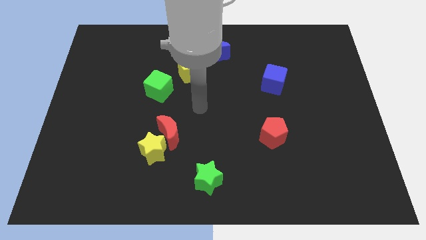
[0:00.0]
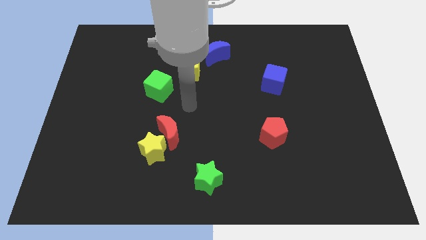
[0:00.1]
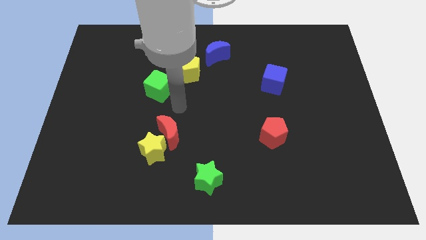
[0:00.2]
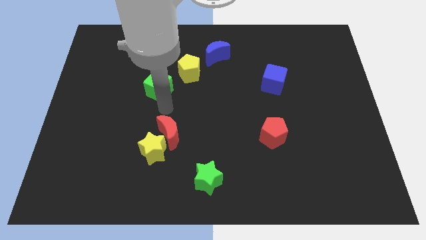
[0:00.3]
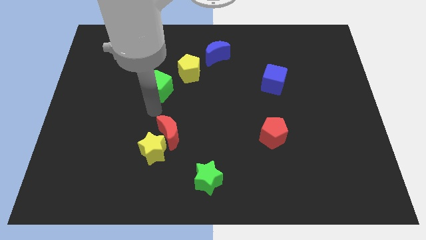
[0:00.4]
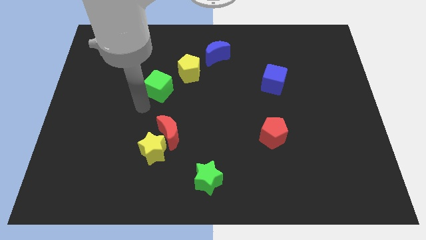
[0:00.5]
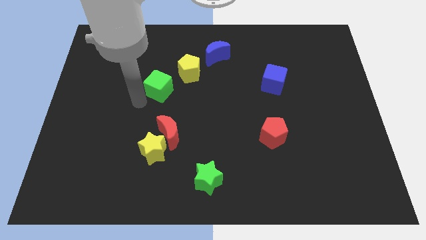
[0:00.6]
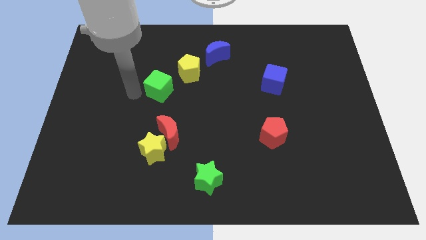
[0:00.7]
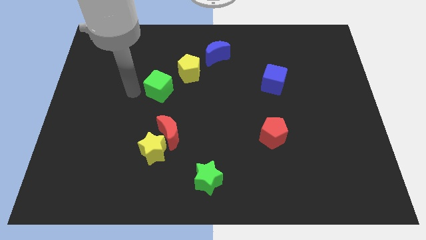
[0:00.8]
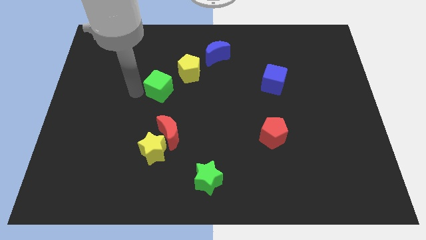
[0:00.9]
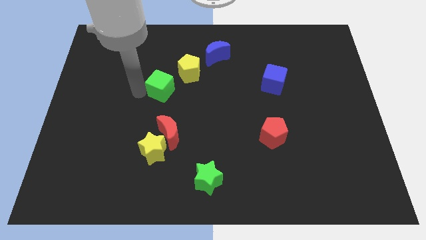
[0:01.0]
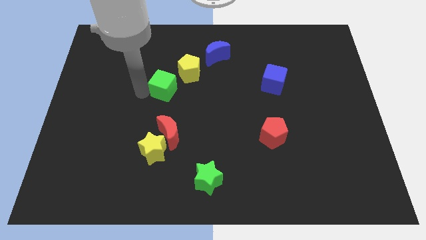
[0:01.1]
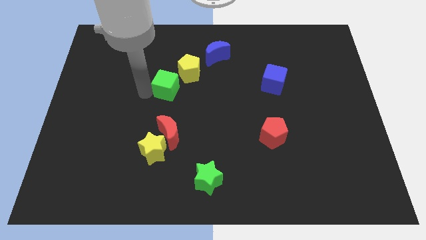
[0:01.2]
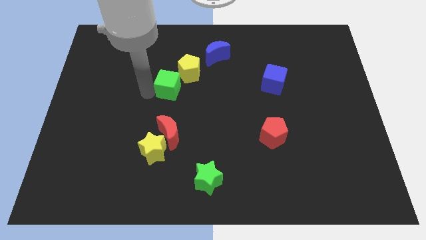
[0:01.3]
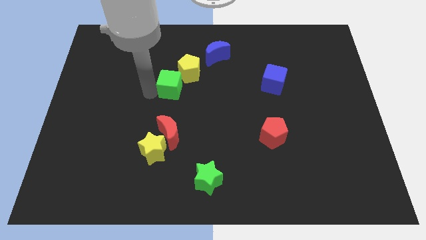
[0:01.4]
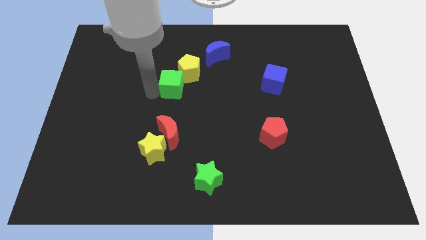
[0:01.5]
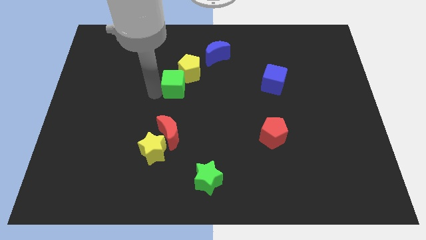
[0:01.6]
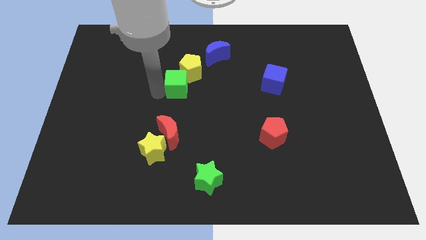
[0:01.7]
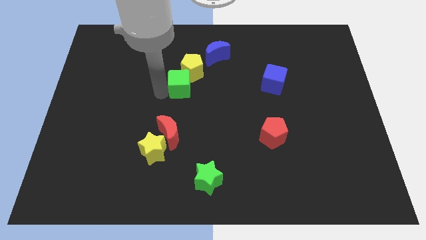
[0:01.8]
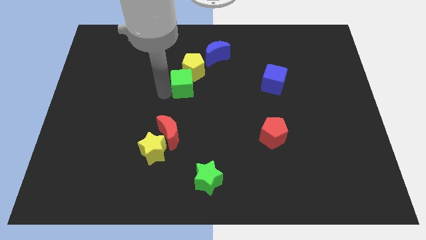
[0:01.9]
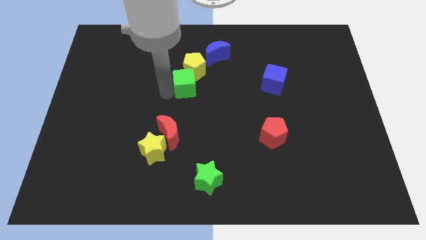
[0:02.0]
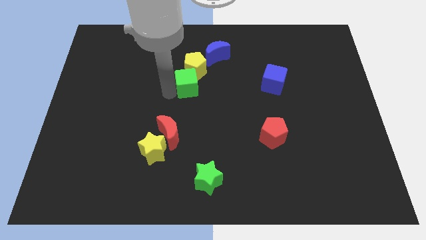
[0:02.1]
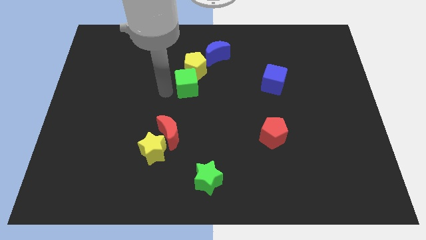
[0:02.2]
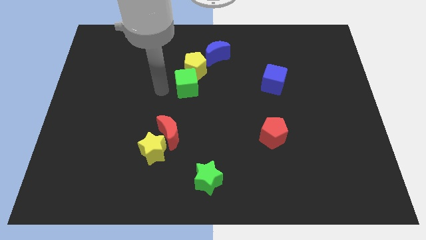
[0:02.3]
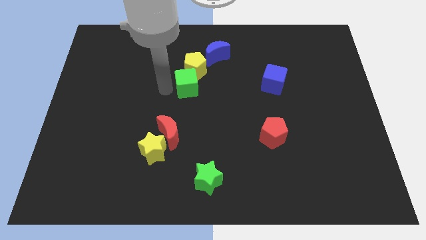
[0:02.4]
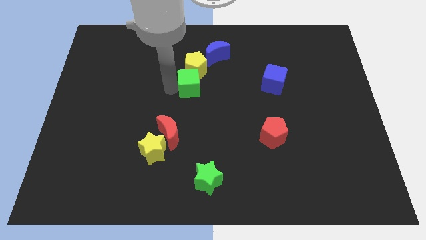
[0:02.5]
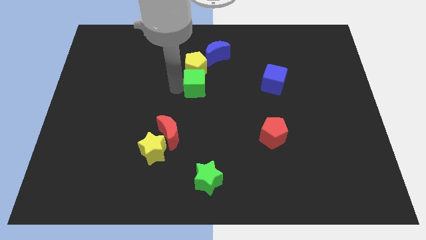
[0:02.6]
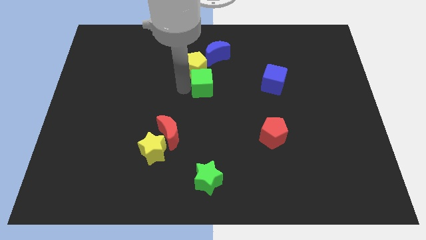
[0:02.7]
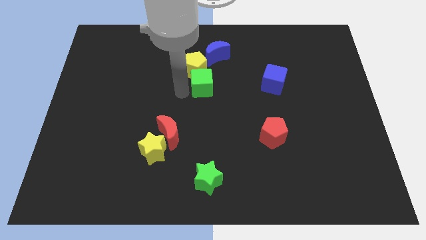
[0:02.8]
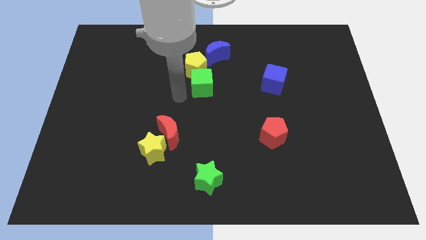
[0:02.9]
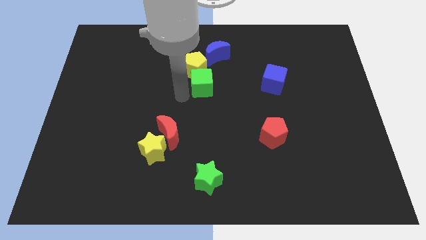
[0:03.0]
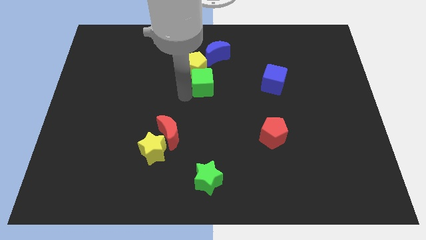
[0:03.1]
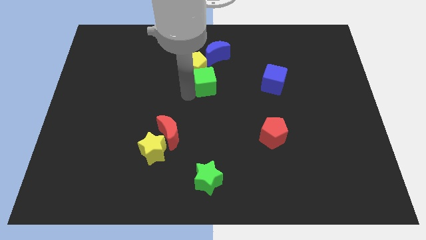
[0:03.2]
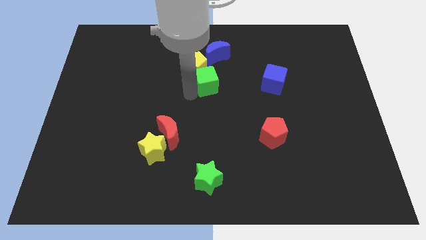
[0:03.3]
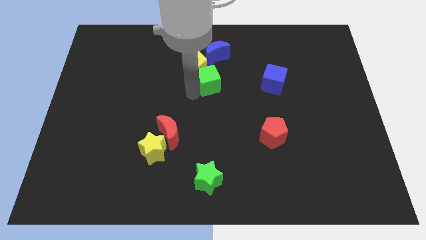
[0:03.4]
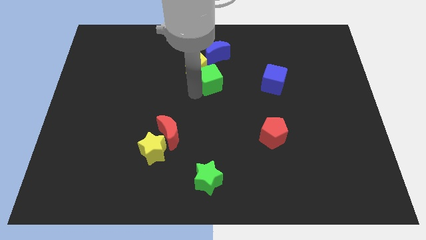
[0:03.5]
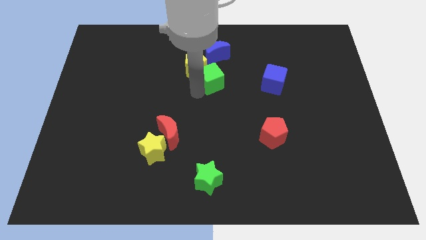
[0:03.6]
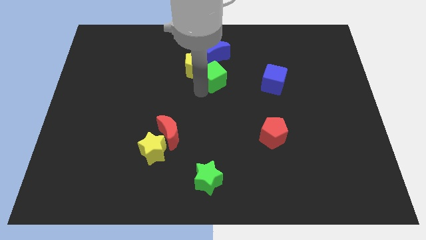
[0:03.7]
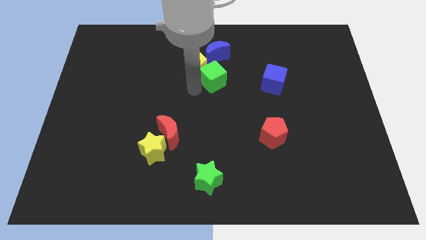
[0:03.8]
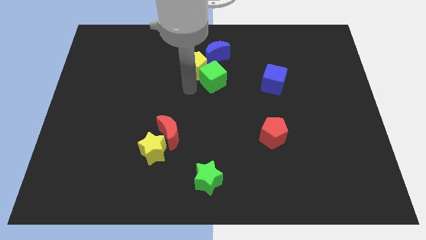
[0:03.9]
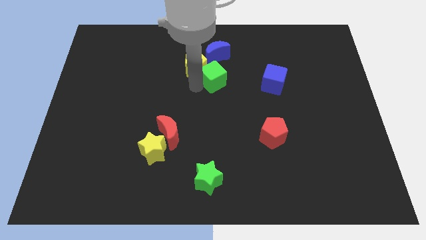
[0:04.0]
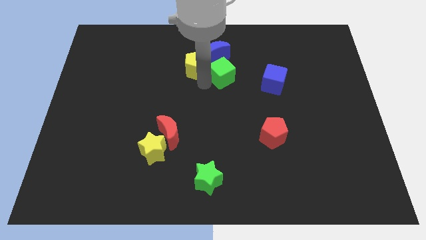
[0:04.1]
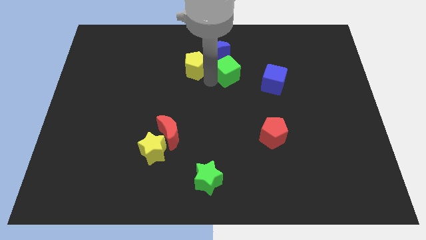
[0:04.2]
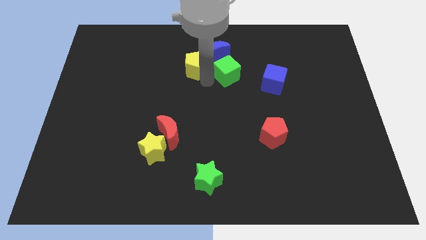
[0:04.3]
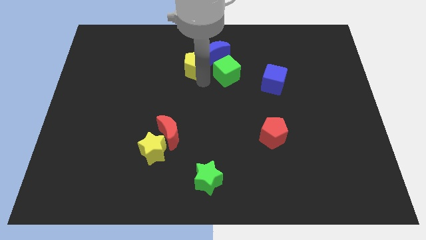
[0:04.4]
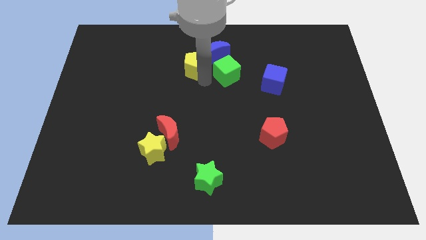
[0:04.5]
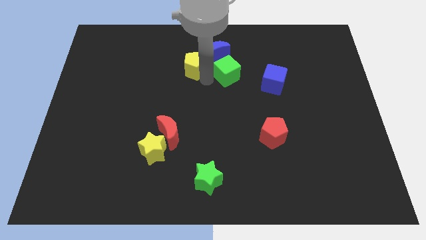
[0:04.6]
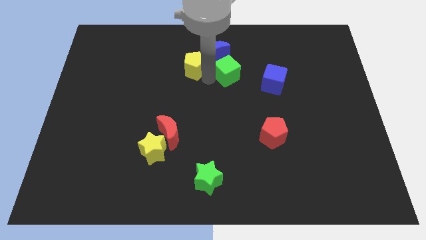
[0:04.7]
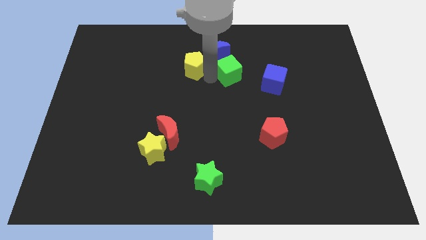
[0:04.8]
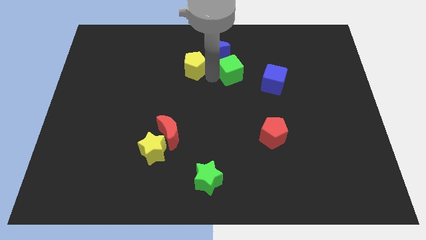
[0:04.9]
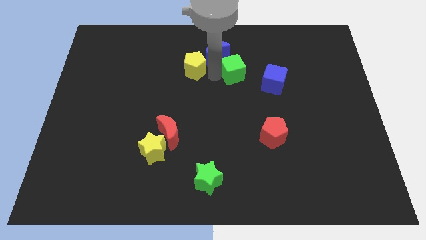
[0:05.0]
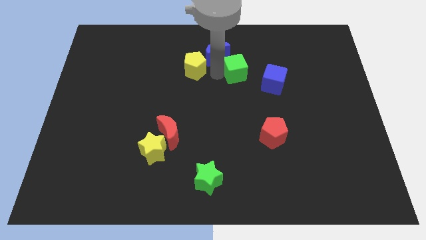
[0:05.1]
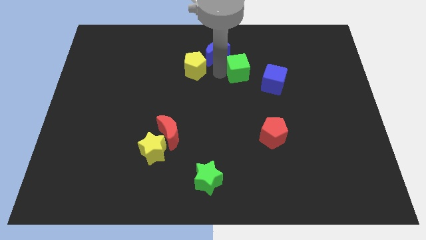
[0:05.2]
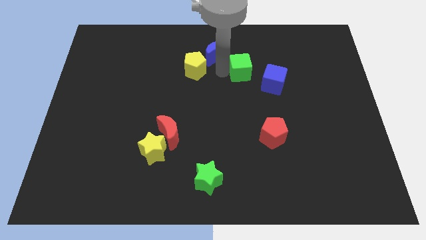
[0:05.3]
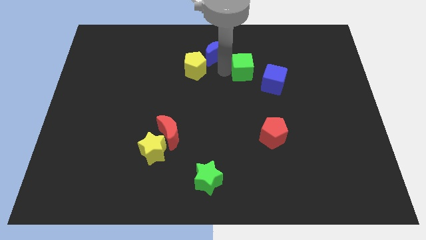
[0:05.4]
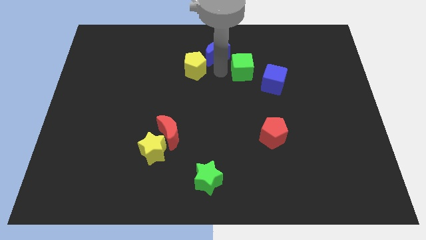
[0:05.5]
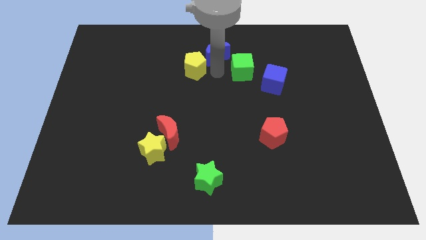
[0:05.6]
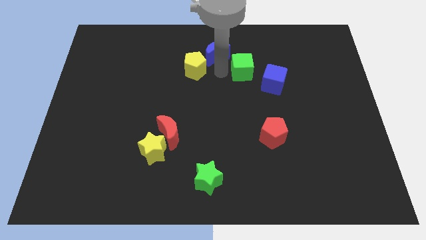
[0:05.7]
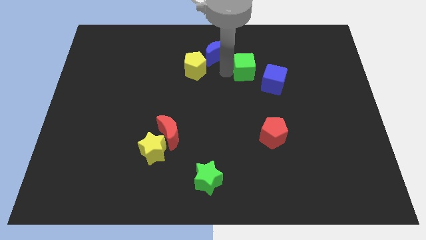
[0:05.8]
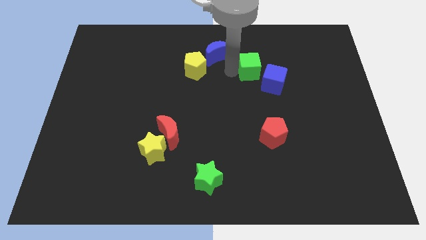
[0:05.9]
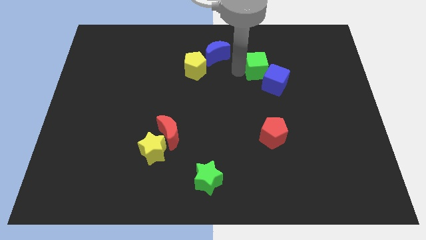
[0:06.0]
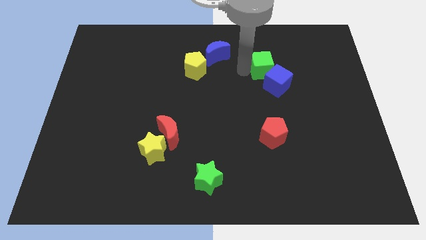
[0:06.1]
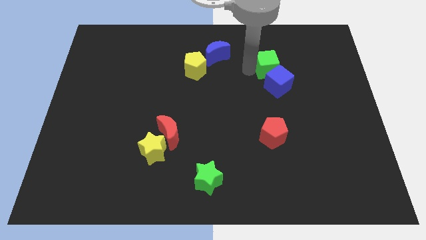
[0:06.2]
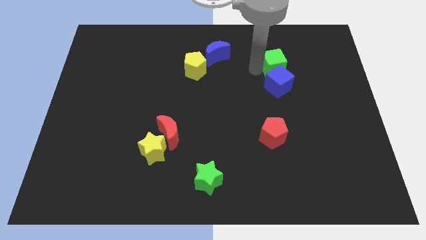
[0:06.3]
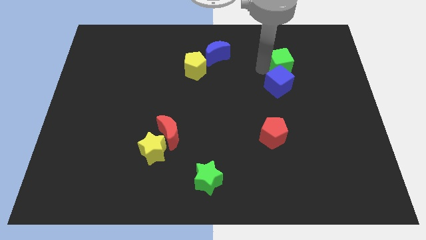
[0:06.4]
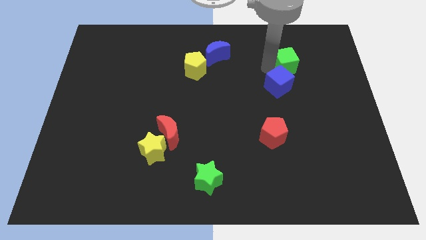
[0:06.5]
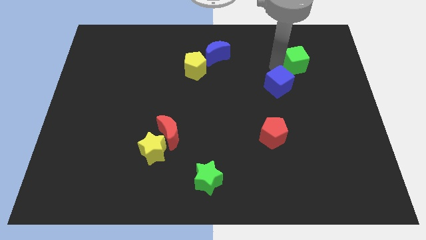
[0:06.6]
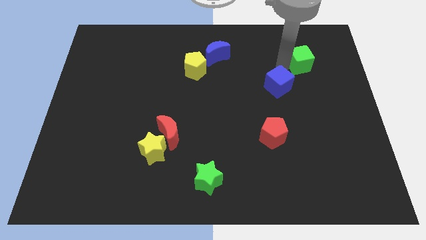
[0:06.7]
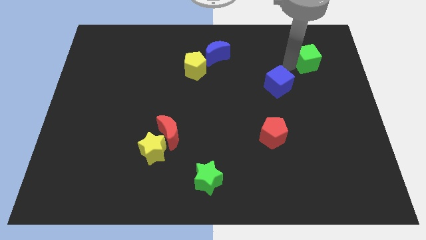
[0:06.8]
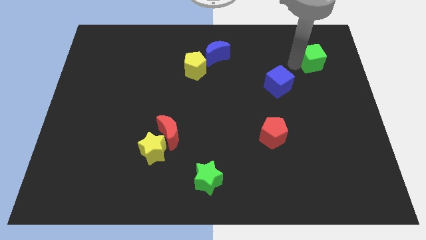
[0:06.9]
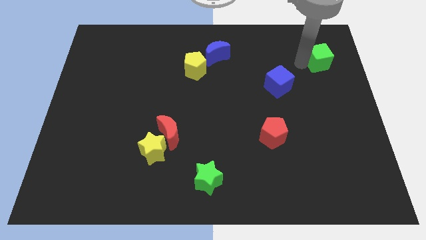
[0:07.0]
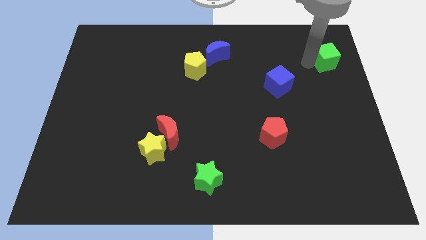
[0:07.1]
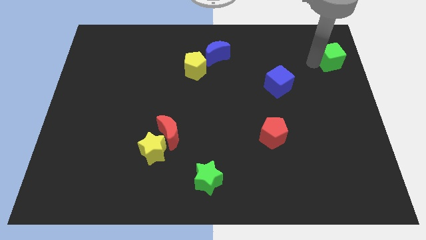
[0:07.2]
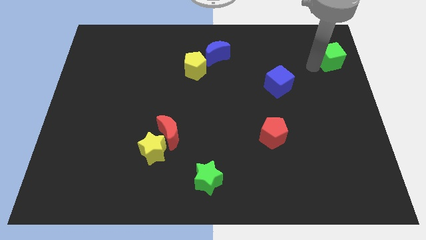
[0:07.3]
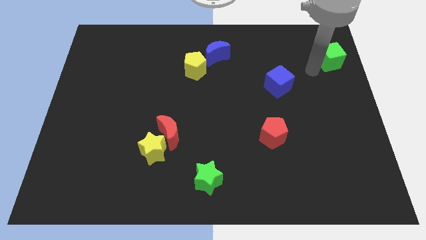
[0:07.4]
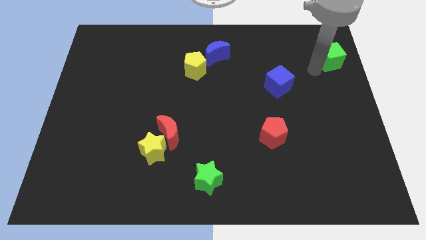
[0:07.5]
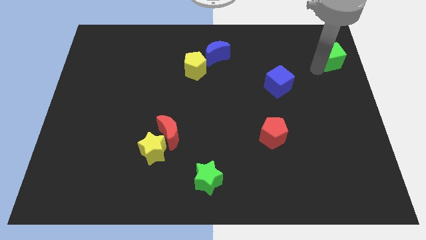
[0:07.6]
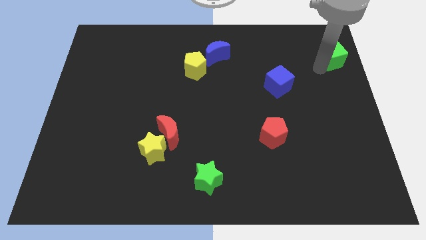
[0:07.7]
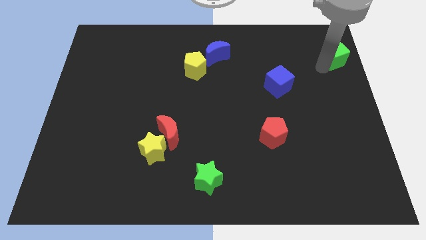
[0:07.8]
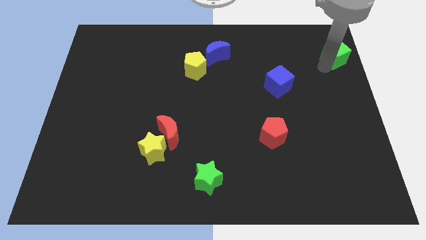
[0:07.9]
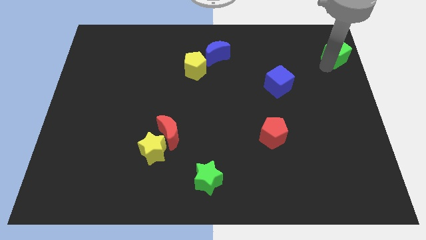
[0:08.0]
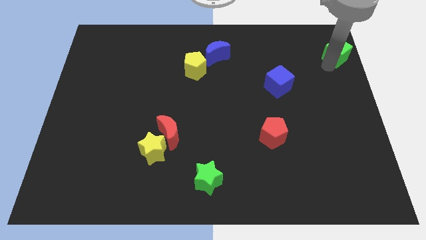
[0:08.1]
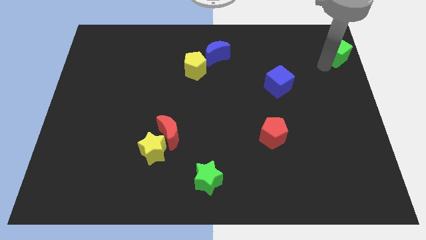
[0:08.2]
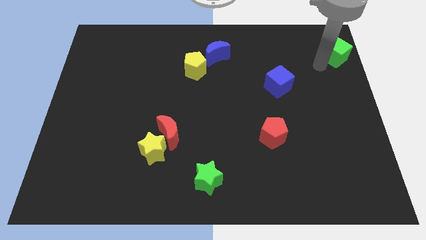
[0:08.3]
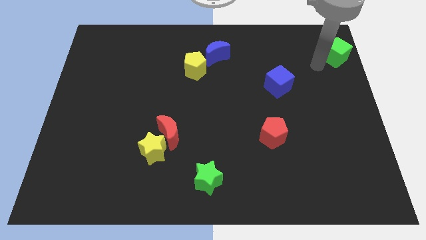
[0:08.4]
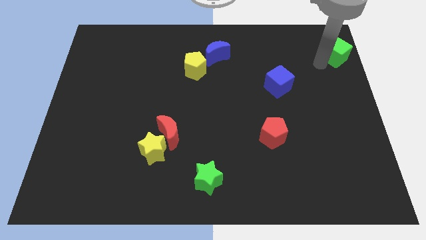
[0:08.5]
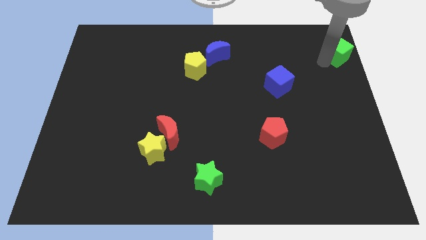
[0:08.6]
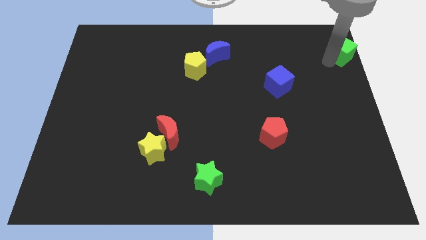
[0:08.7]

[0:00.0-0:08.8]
slide the green cube to the top right corner
